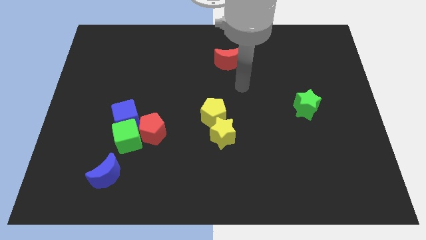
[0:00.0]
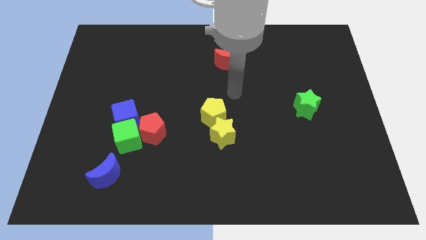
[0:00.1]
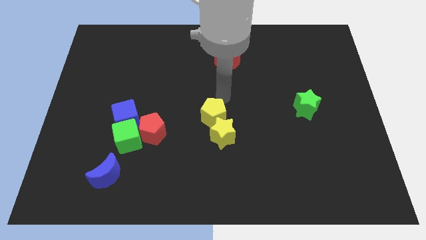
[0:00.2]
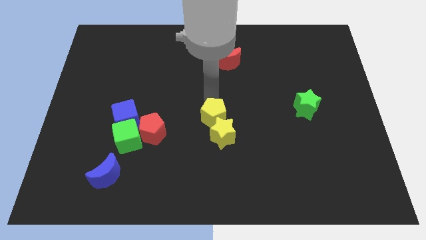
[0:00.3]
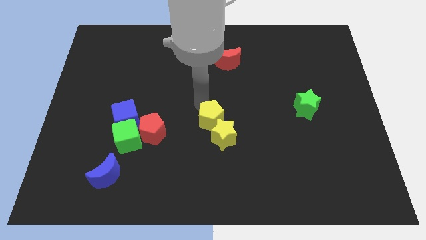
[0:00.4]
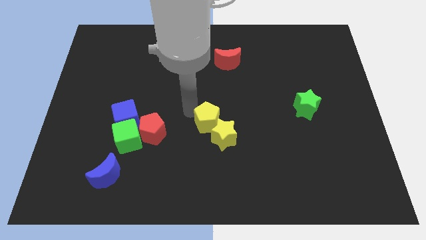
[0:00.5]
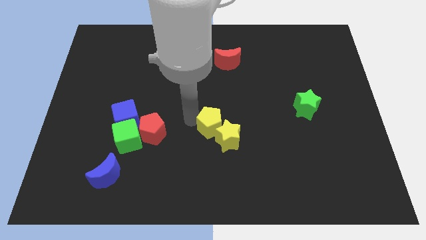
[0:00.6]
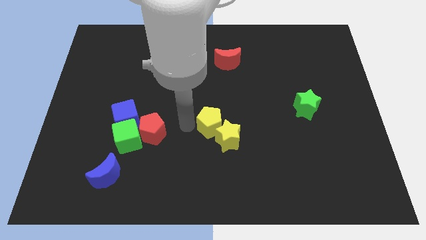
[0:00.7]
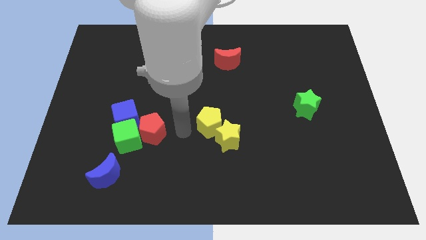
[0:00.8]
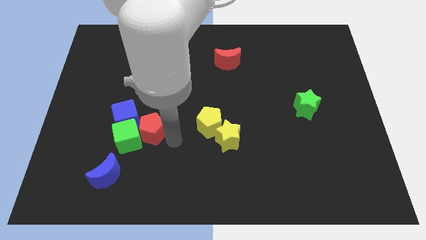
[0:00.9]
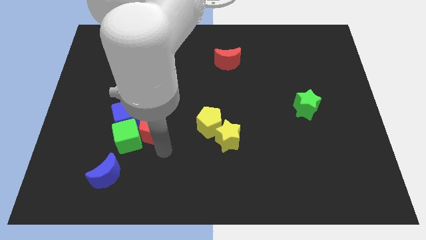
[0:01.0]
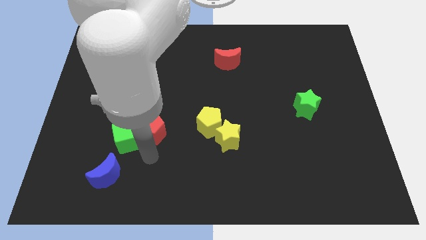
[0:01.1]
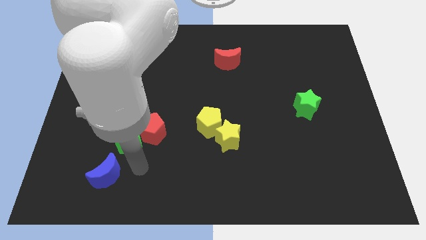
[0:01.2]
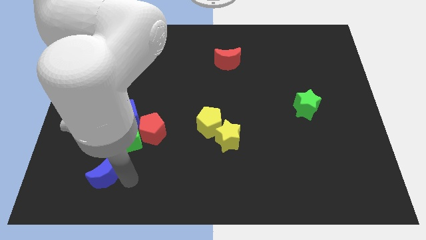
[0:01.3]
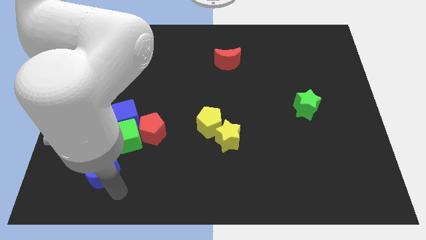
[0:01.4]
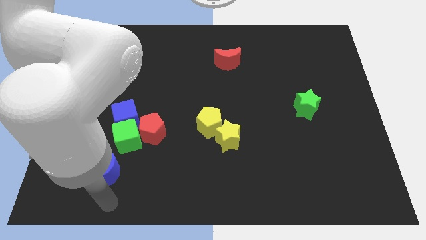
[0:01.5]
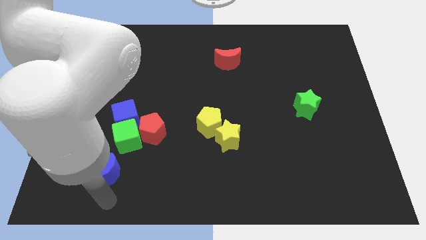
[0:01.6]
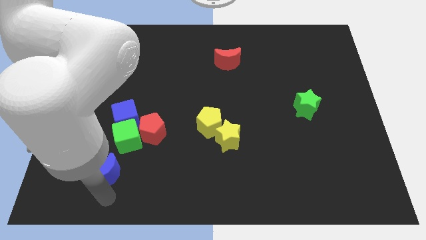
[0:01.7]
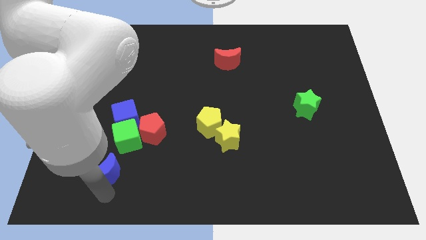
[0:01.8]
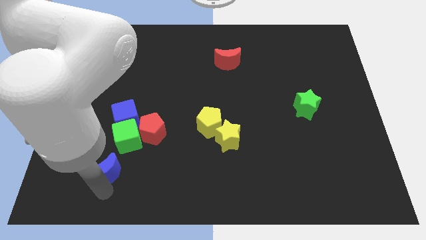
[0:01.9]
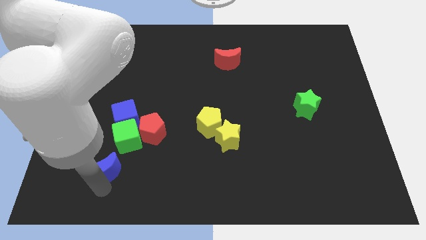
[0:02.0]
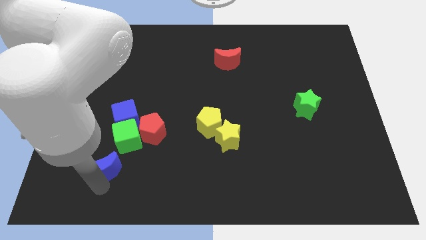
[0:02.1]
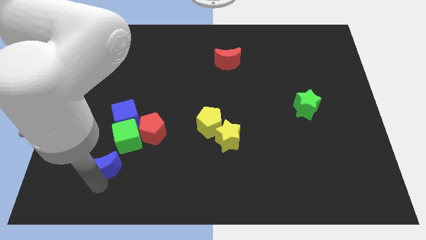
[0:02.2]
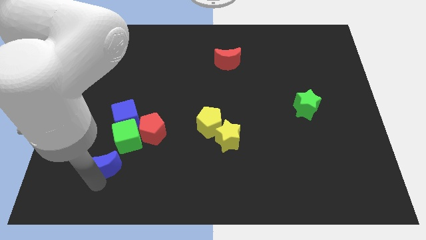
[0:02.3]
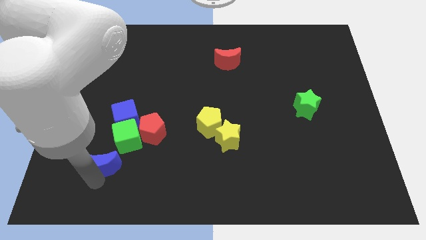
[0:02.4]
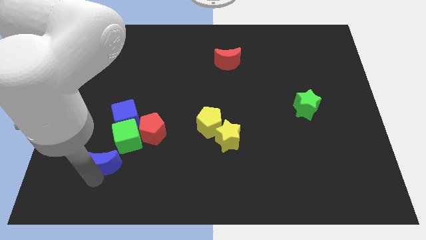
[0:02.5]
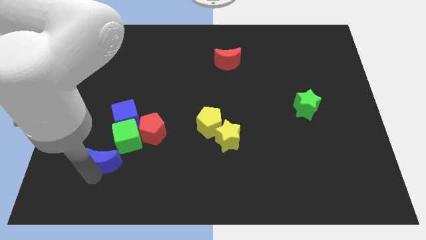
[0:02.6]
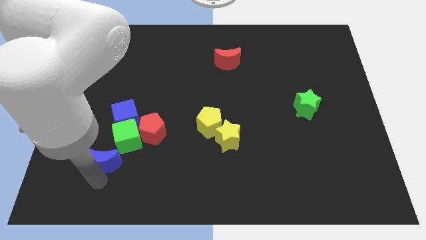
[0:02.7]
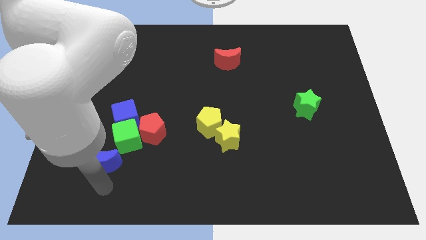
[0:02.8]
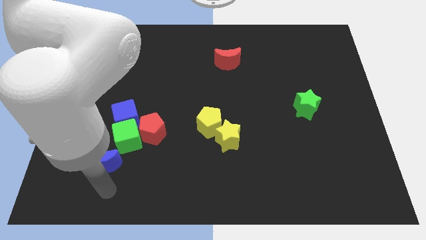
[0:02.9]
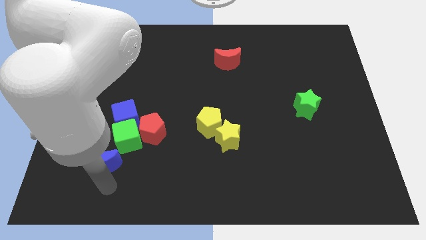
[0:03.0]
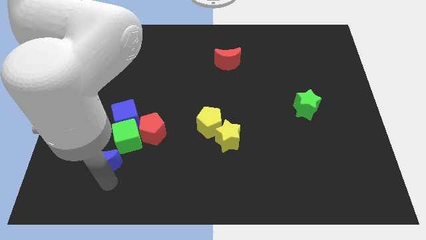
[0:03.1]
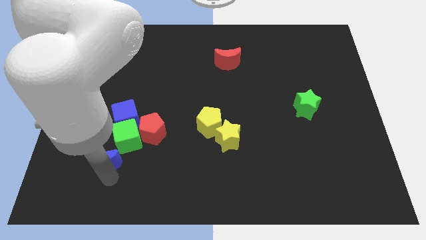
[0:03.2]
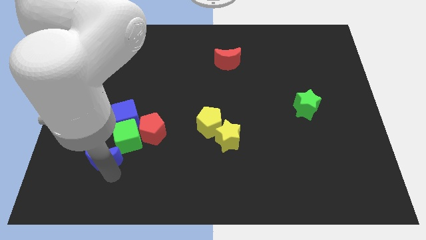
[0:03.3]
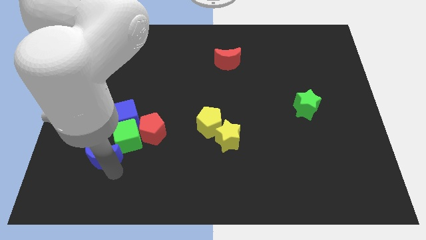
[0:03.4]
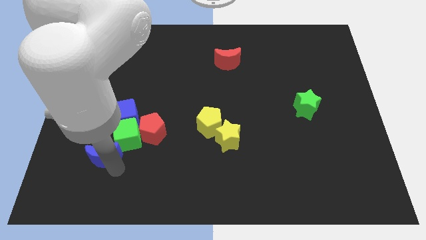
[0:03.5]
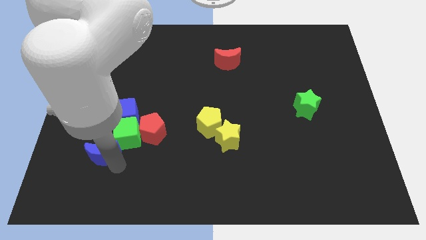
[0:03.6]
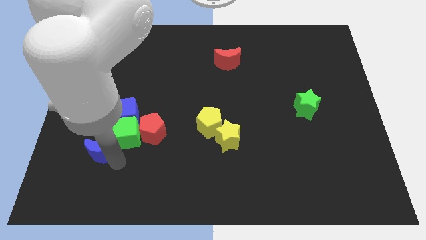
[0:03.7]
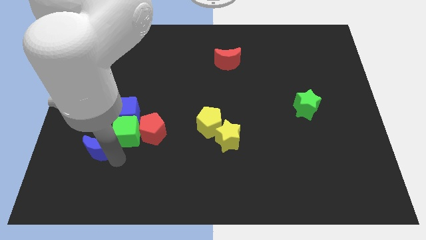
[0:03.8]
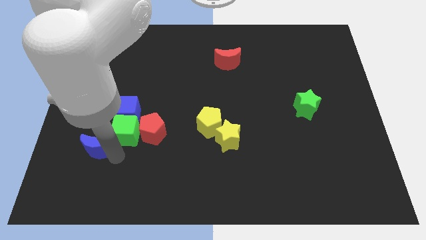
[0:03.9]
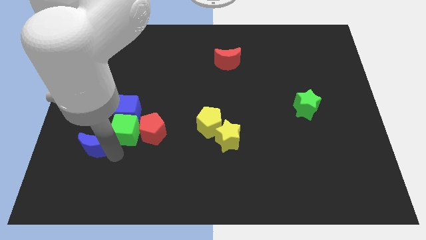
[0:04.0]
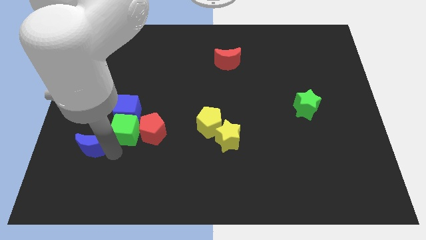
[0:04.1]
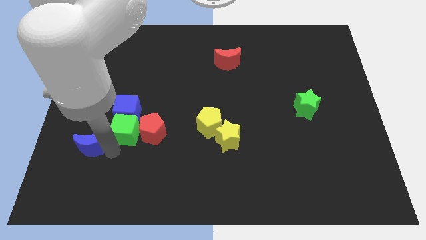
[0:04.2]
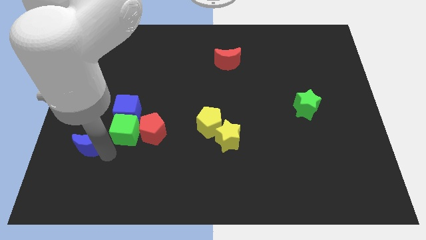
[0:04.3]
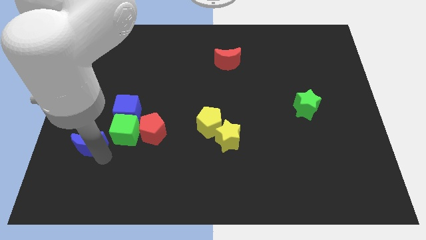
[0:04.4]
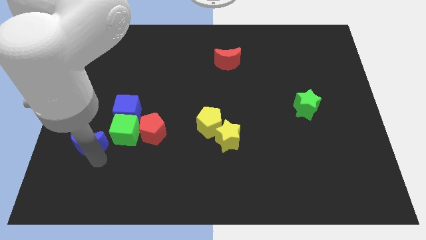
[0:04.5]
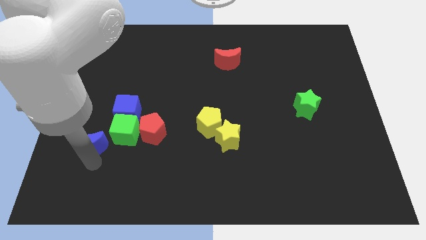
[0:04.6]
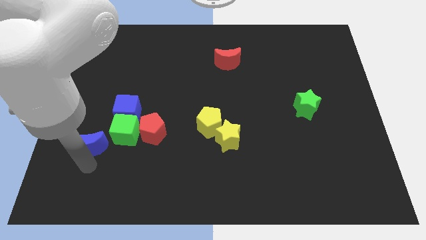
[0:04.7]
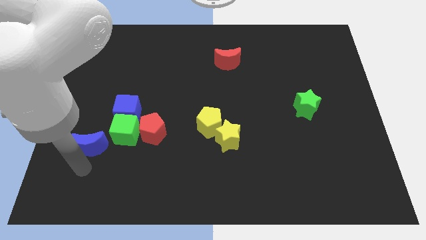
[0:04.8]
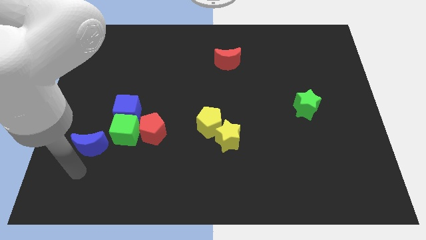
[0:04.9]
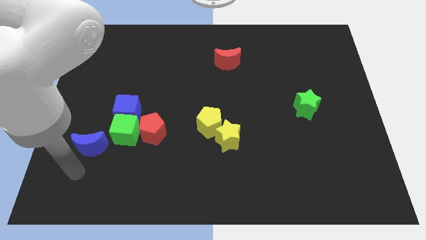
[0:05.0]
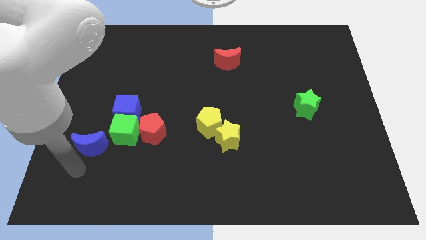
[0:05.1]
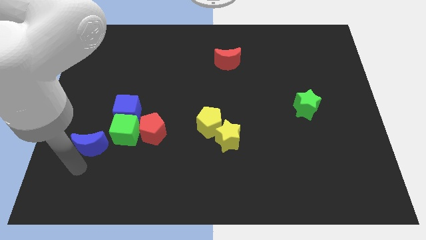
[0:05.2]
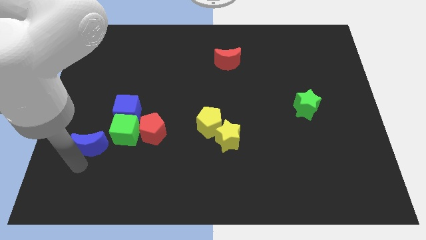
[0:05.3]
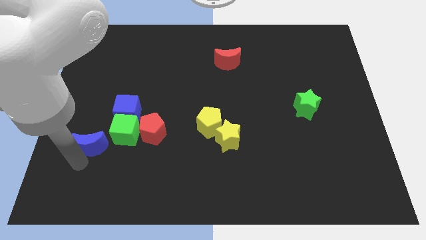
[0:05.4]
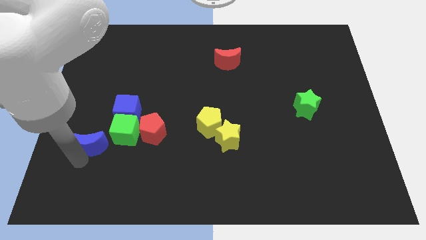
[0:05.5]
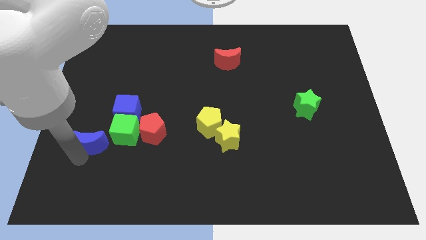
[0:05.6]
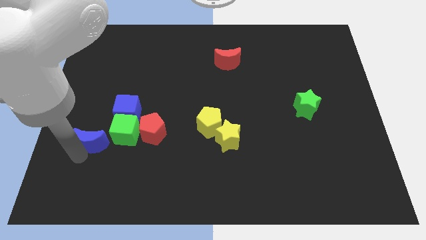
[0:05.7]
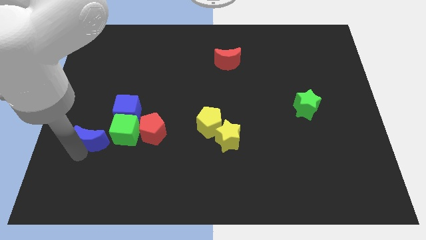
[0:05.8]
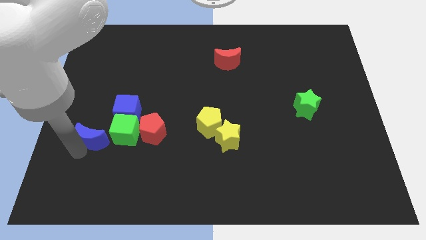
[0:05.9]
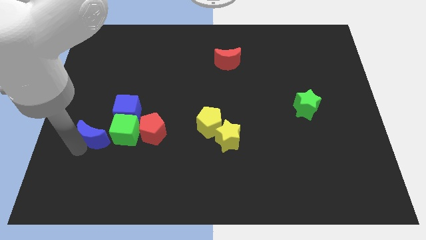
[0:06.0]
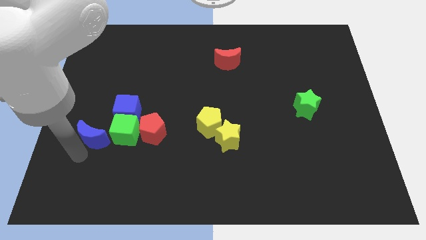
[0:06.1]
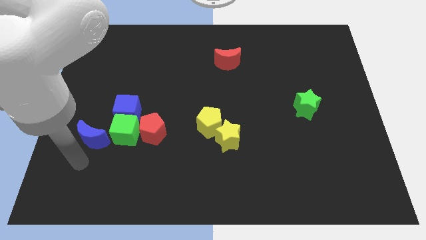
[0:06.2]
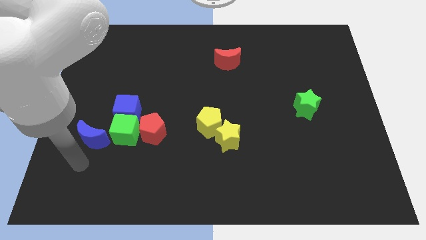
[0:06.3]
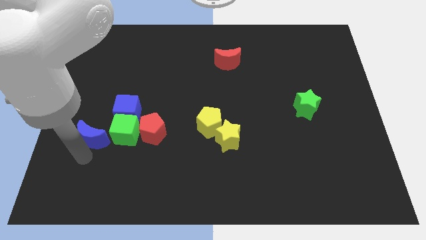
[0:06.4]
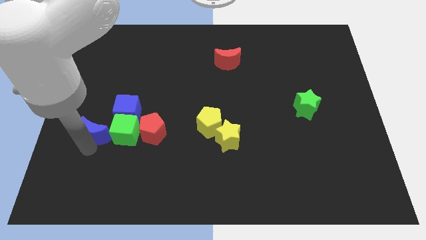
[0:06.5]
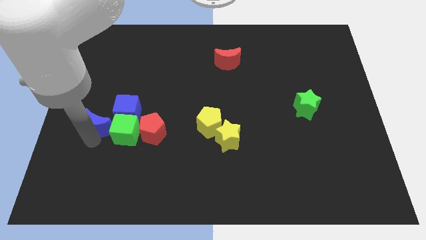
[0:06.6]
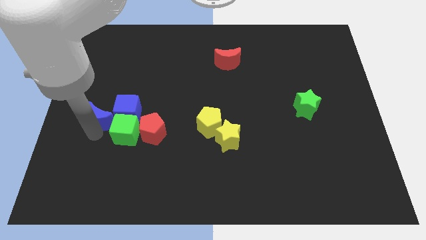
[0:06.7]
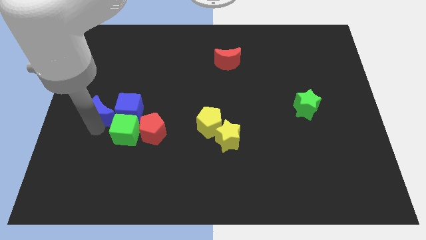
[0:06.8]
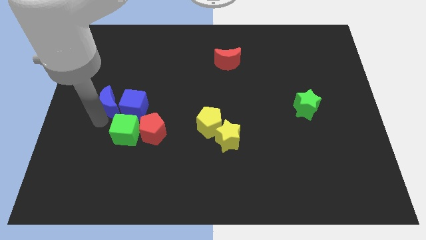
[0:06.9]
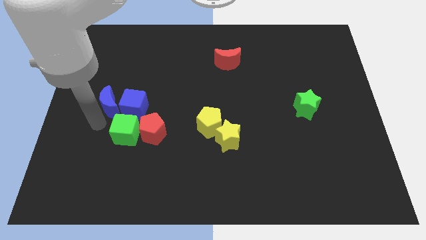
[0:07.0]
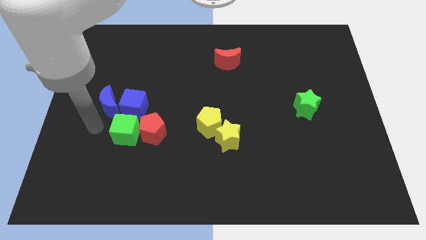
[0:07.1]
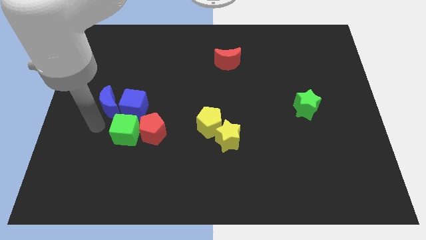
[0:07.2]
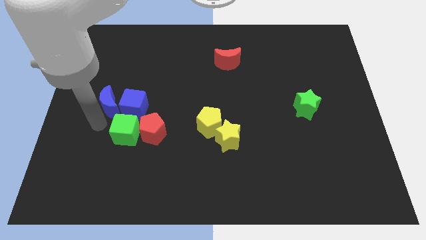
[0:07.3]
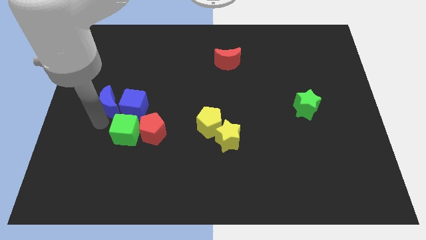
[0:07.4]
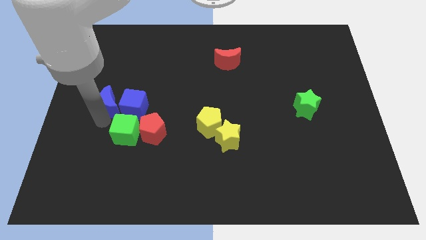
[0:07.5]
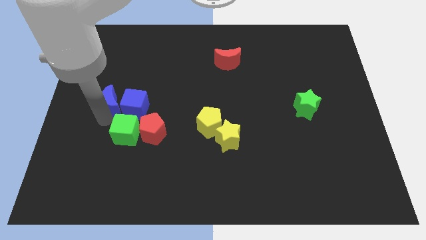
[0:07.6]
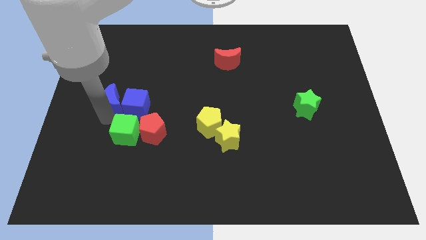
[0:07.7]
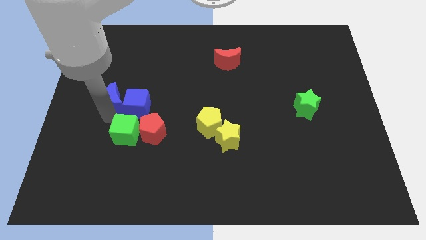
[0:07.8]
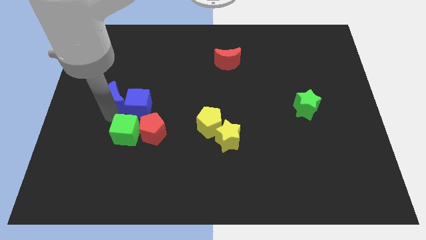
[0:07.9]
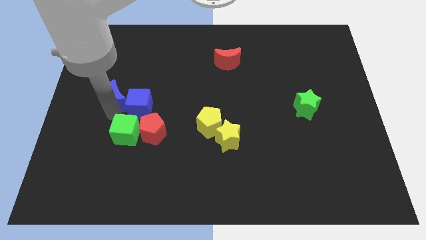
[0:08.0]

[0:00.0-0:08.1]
push the blue moon up

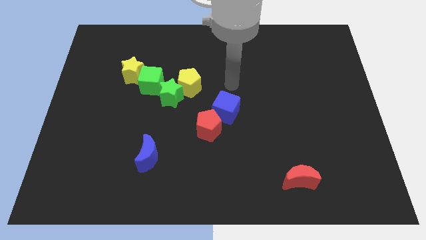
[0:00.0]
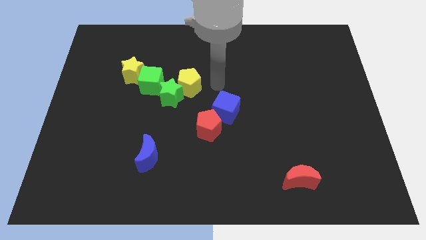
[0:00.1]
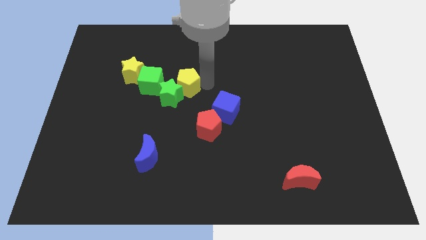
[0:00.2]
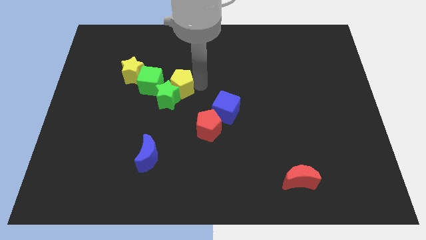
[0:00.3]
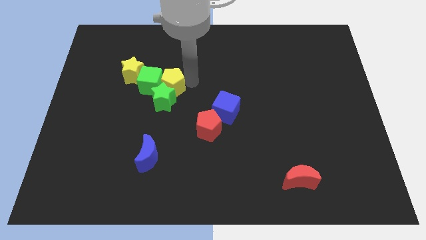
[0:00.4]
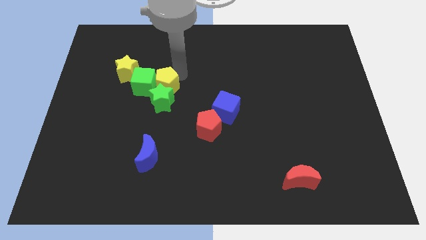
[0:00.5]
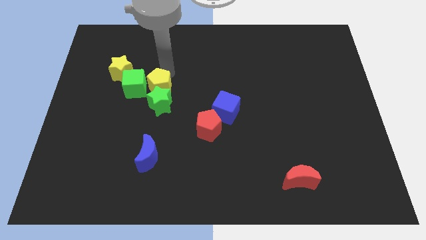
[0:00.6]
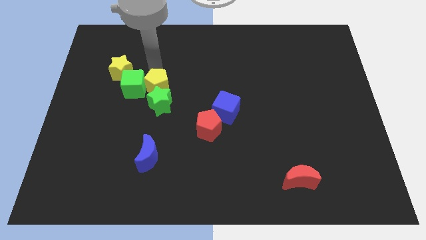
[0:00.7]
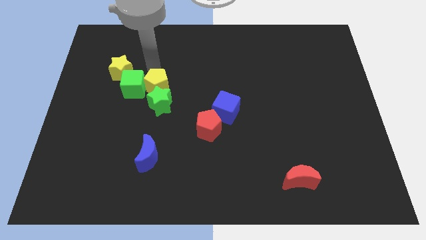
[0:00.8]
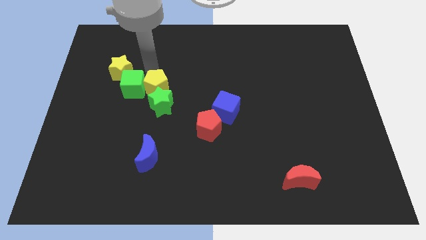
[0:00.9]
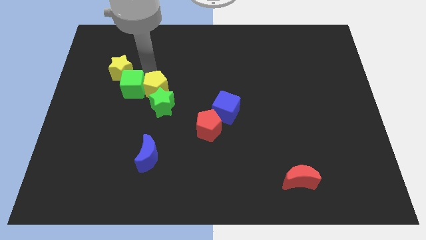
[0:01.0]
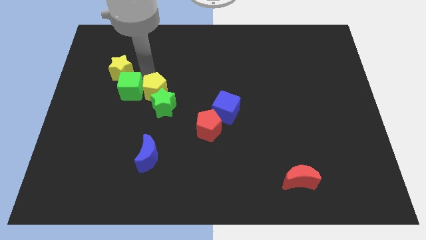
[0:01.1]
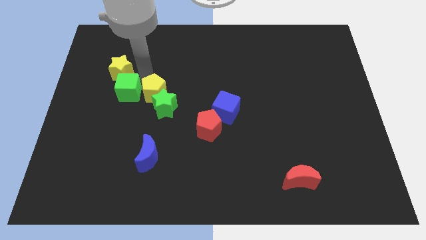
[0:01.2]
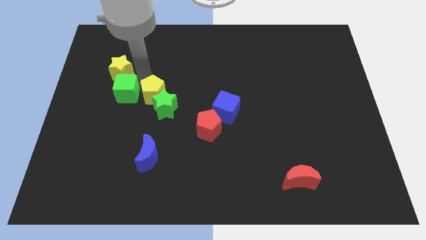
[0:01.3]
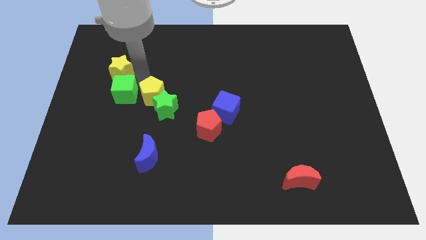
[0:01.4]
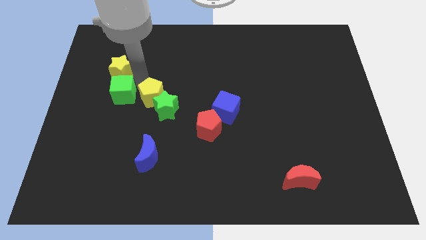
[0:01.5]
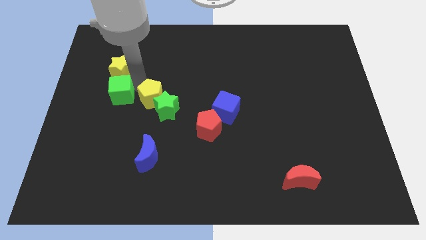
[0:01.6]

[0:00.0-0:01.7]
slightly push the green cube down and left diagonally
